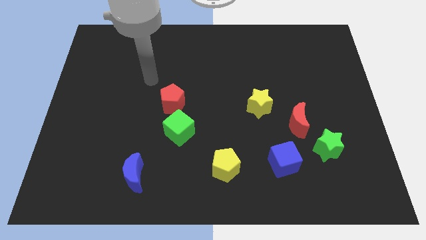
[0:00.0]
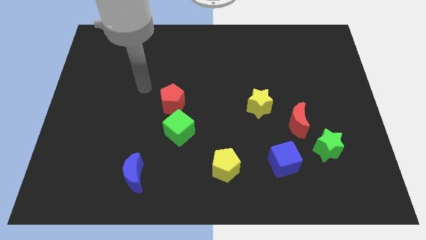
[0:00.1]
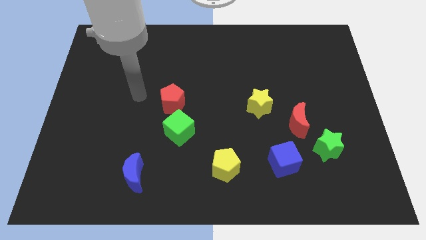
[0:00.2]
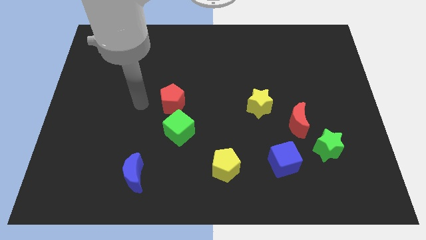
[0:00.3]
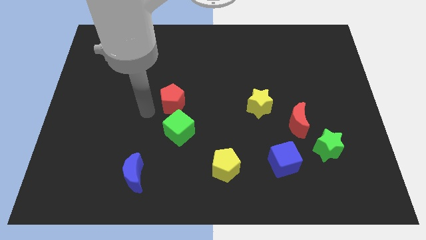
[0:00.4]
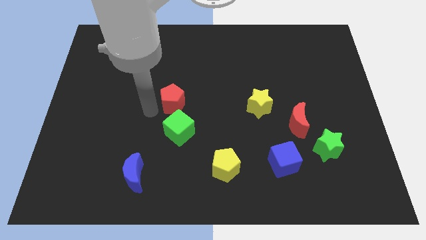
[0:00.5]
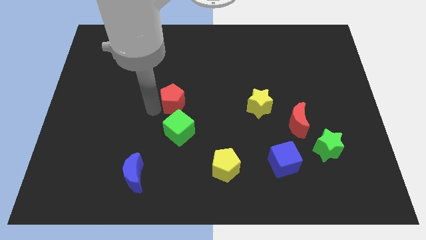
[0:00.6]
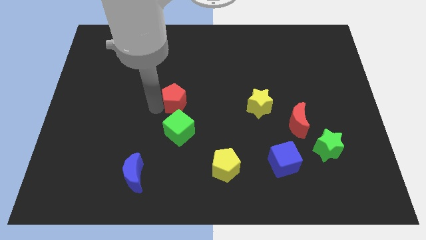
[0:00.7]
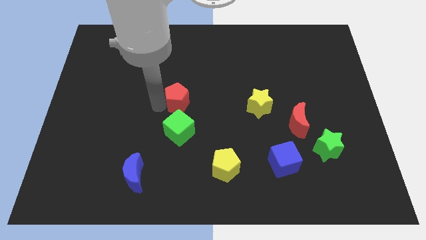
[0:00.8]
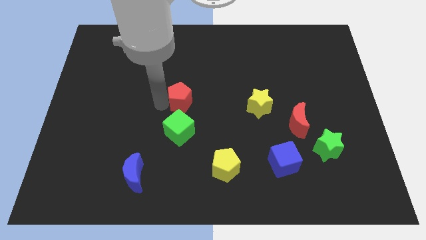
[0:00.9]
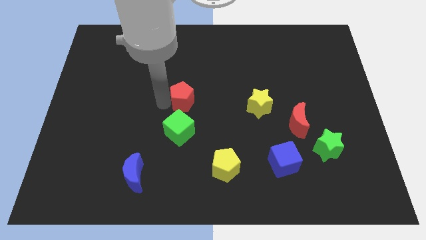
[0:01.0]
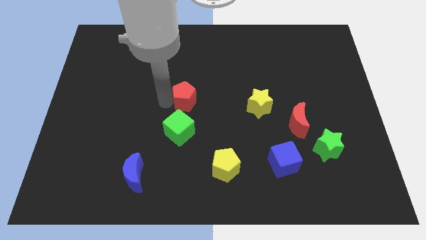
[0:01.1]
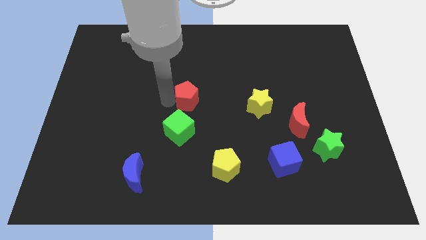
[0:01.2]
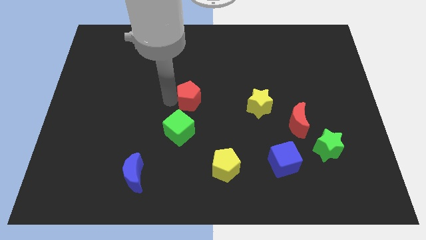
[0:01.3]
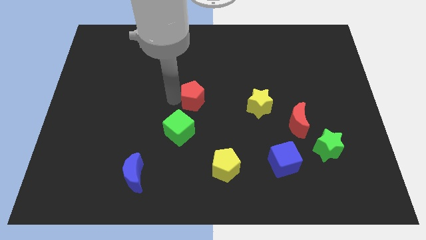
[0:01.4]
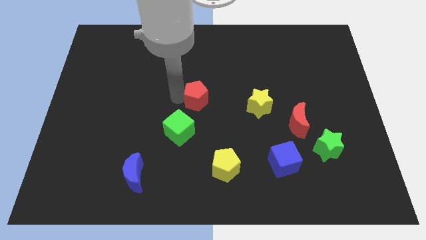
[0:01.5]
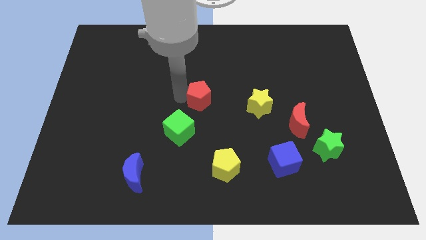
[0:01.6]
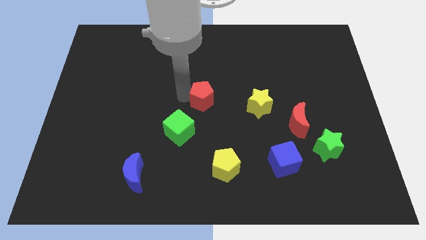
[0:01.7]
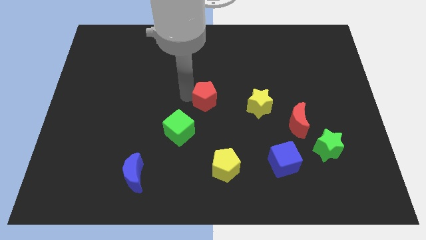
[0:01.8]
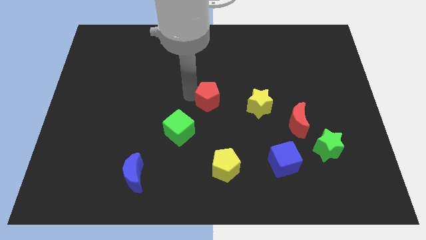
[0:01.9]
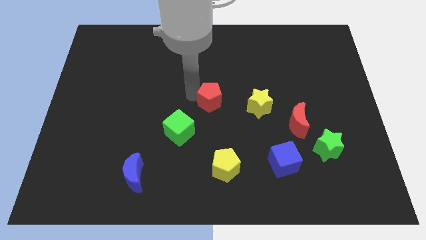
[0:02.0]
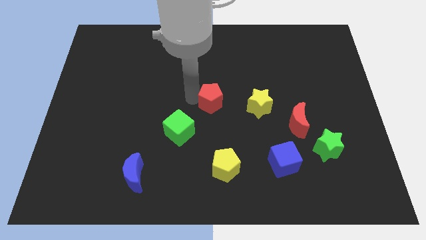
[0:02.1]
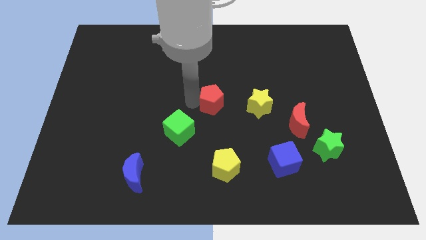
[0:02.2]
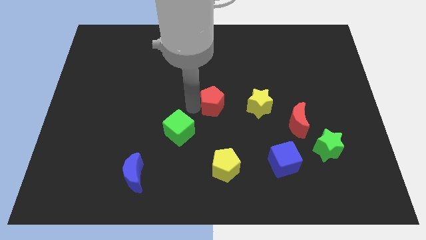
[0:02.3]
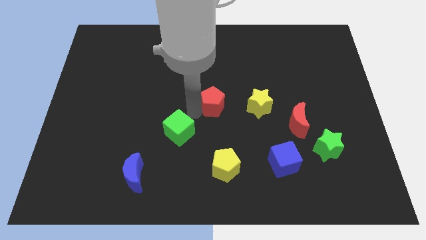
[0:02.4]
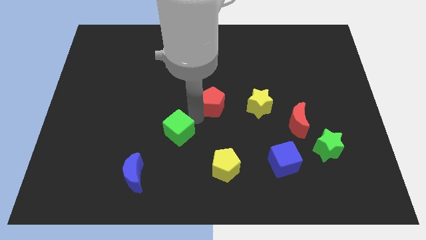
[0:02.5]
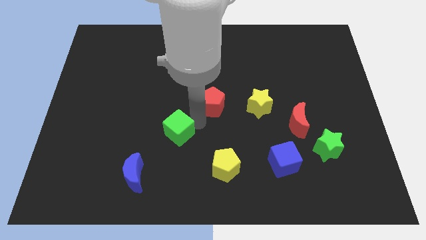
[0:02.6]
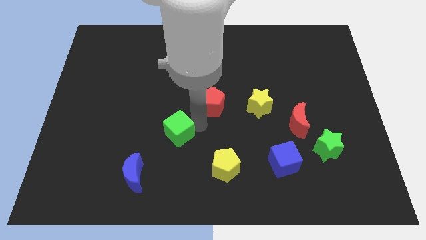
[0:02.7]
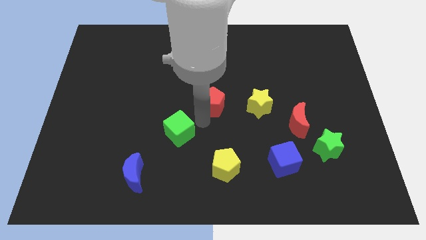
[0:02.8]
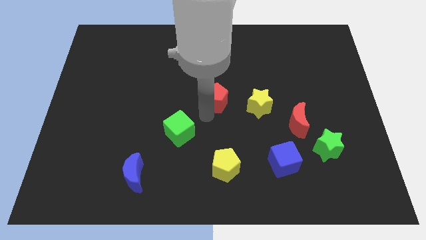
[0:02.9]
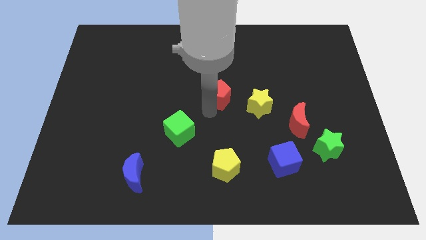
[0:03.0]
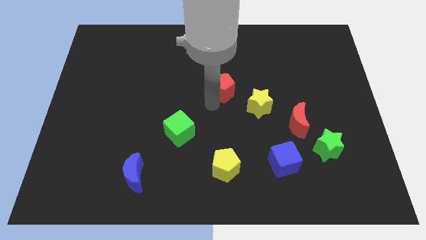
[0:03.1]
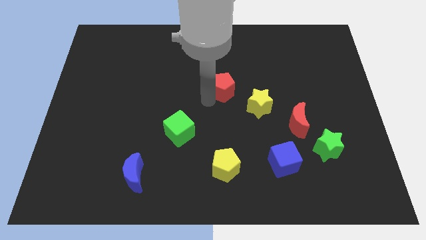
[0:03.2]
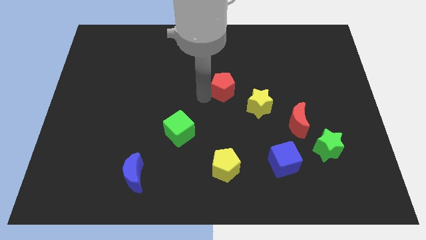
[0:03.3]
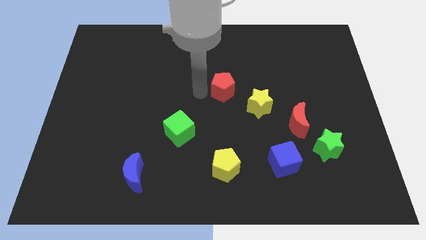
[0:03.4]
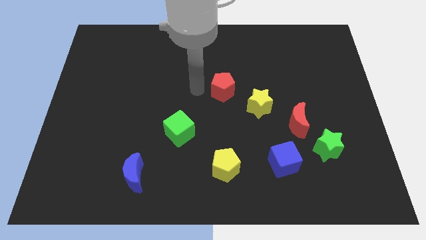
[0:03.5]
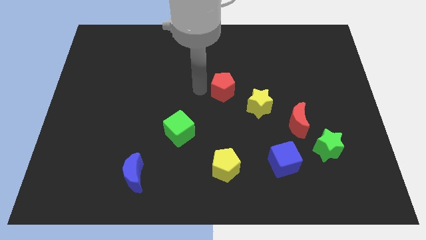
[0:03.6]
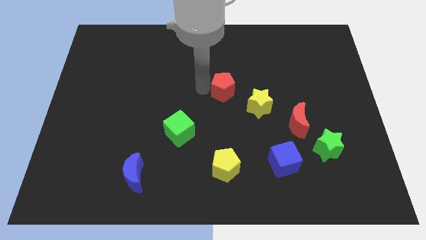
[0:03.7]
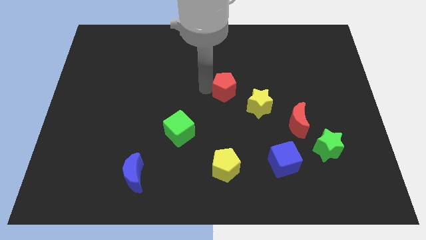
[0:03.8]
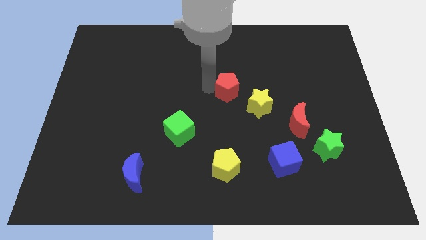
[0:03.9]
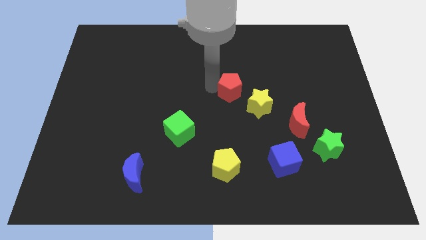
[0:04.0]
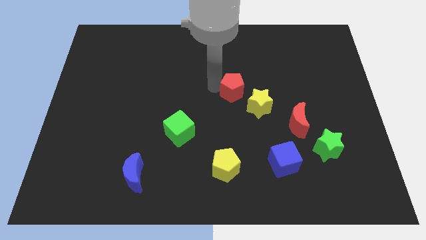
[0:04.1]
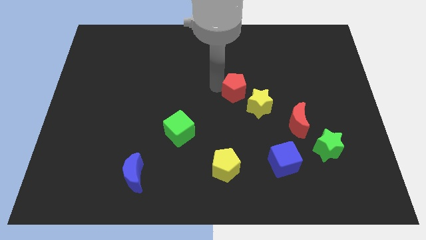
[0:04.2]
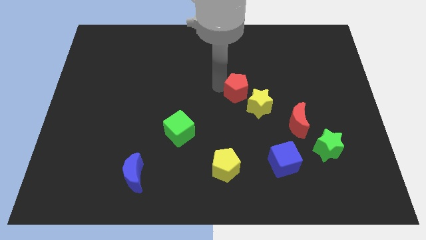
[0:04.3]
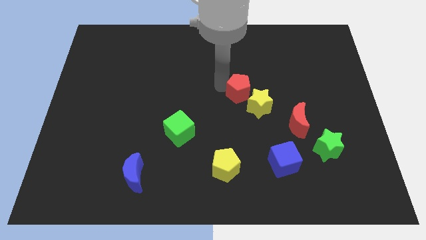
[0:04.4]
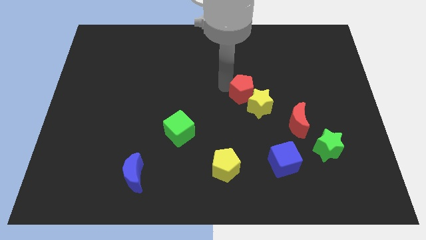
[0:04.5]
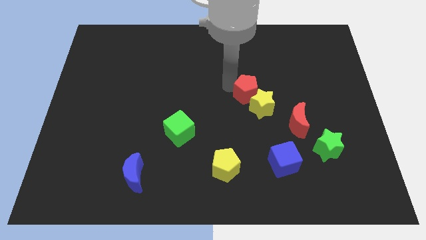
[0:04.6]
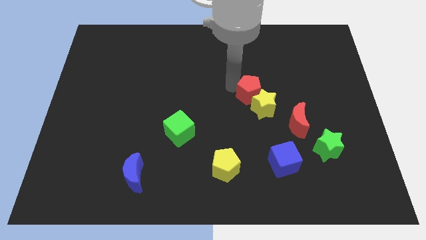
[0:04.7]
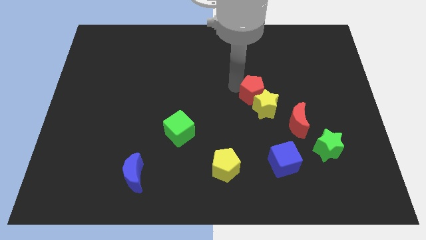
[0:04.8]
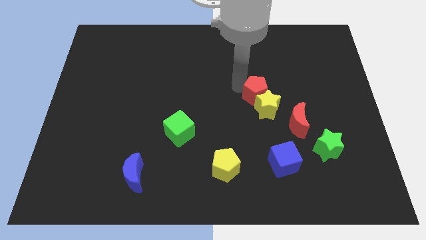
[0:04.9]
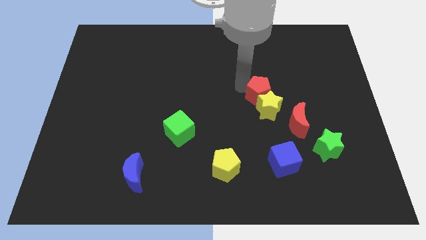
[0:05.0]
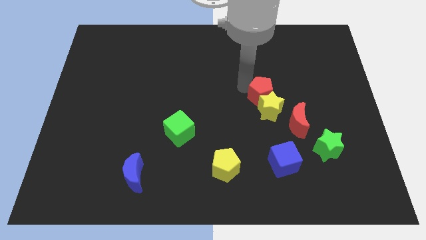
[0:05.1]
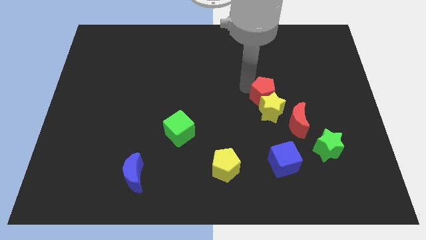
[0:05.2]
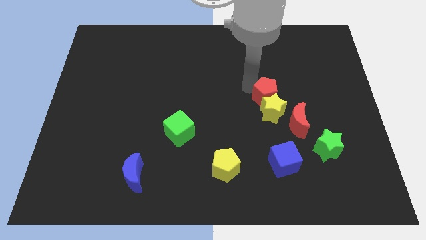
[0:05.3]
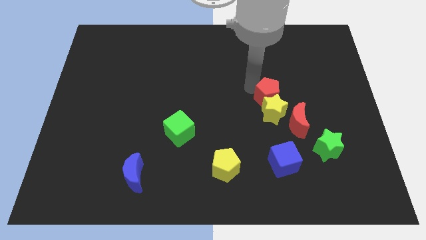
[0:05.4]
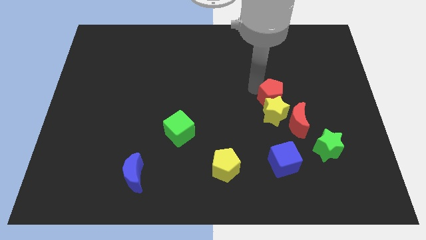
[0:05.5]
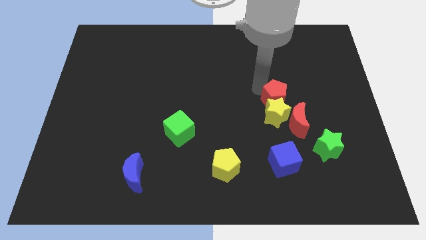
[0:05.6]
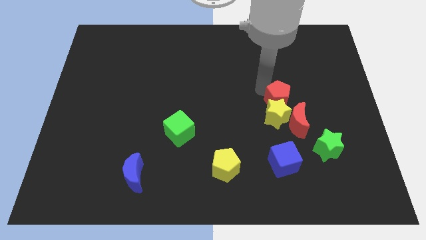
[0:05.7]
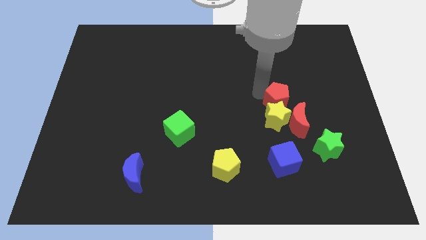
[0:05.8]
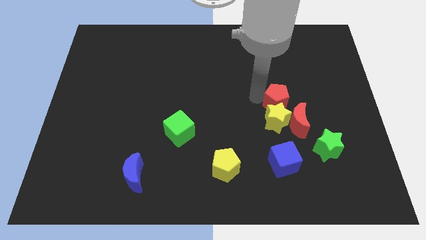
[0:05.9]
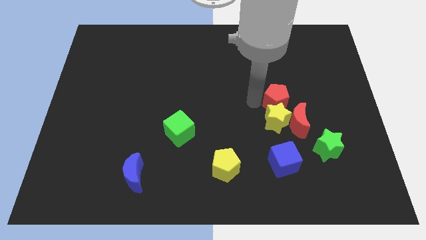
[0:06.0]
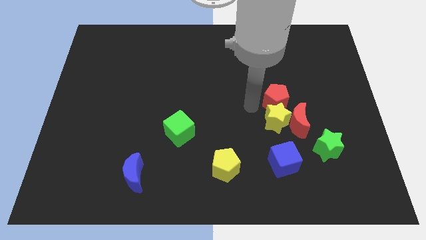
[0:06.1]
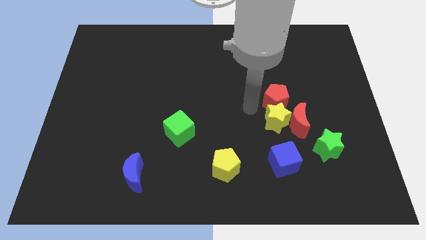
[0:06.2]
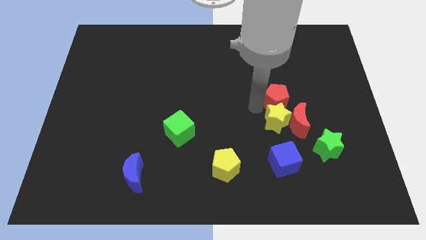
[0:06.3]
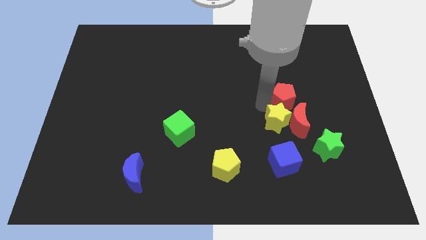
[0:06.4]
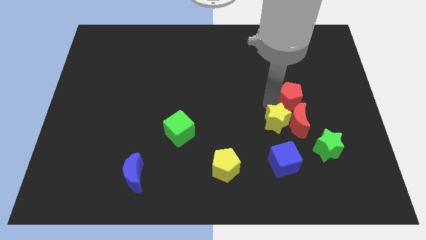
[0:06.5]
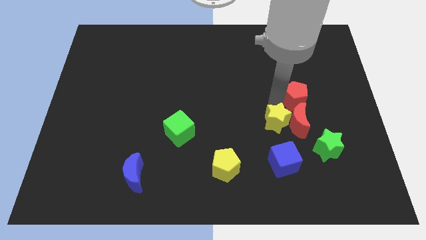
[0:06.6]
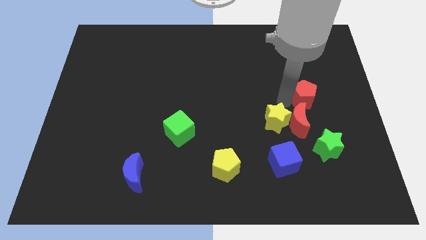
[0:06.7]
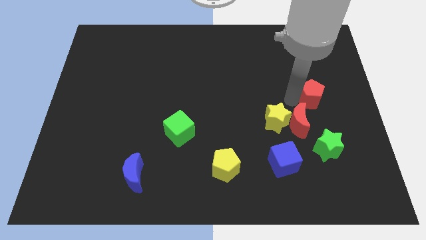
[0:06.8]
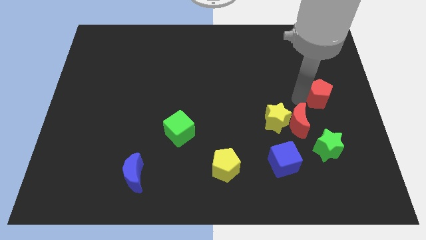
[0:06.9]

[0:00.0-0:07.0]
move the red pentagon to the right side of the board
